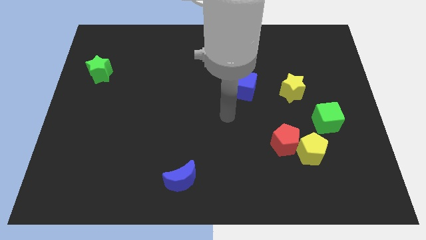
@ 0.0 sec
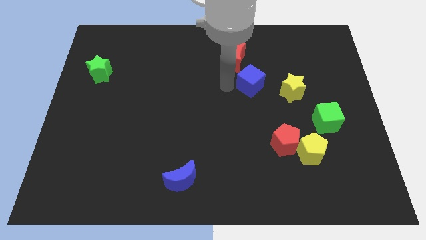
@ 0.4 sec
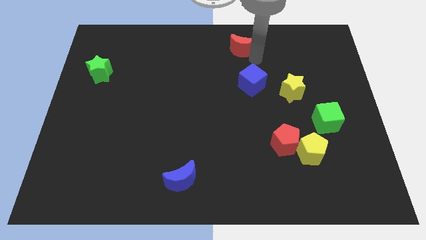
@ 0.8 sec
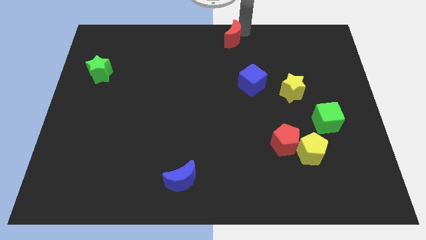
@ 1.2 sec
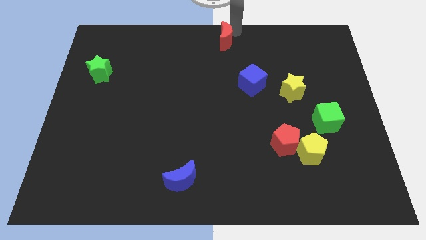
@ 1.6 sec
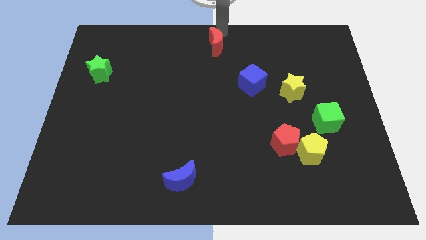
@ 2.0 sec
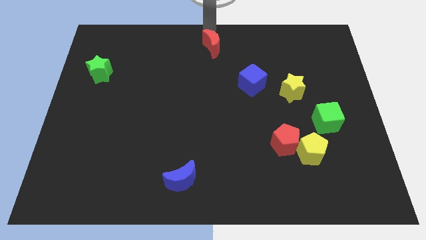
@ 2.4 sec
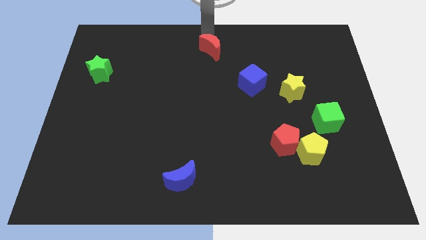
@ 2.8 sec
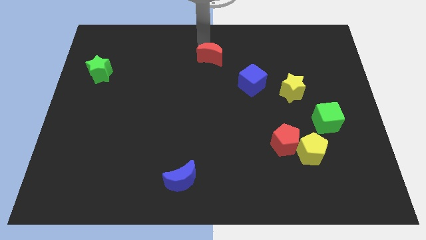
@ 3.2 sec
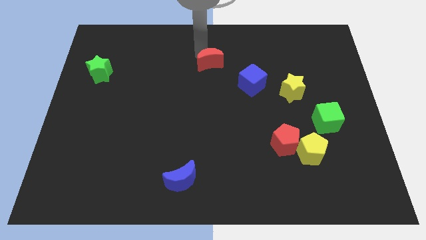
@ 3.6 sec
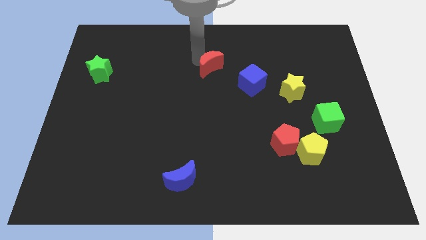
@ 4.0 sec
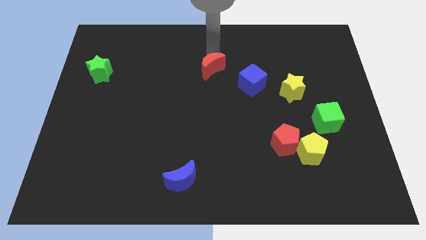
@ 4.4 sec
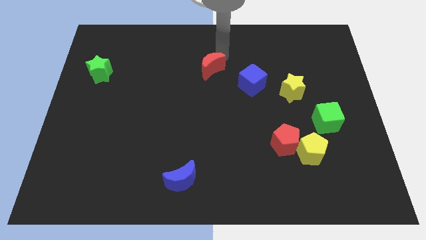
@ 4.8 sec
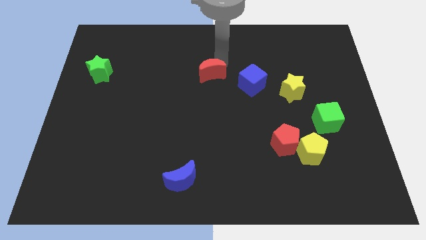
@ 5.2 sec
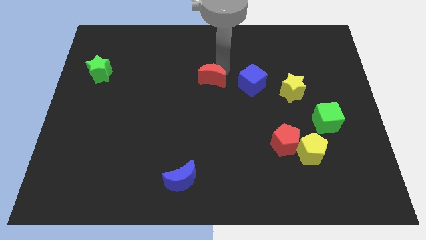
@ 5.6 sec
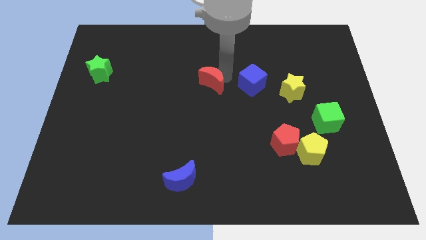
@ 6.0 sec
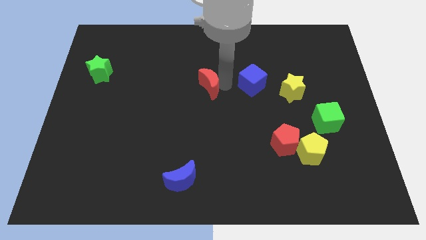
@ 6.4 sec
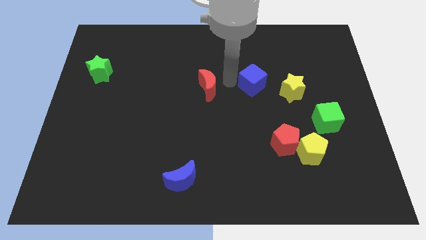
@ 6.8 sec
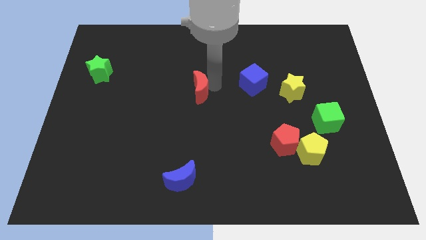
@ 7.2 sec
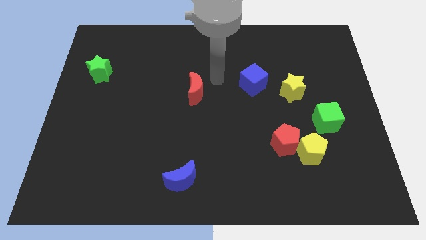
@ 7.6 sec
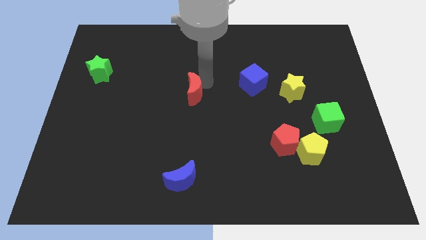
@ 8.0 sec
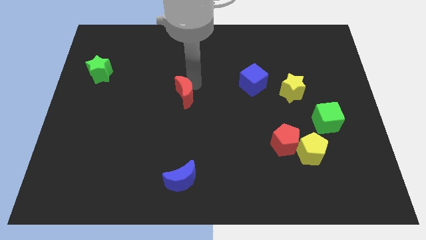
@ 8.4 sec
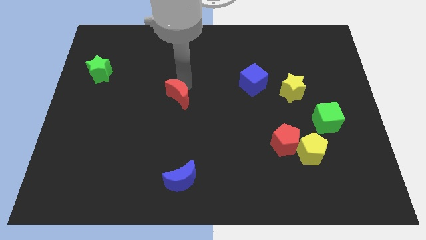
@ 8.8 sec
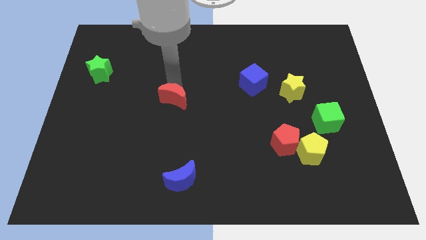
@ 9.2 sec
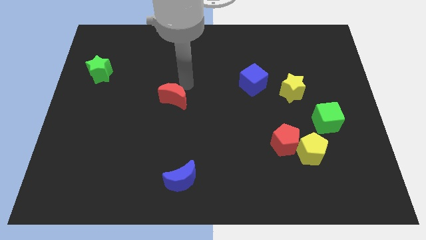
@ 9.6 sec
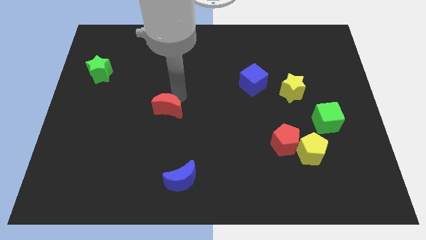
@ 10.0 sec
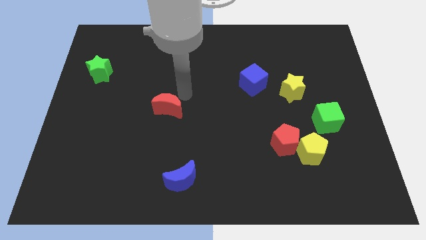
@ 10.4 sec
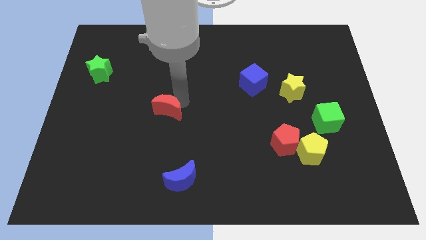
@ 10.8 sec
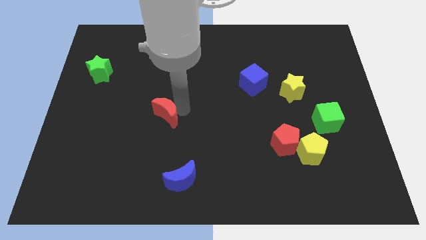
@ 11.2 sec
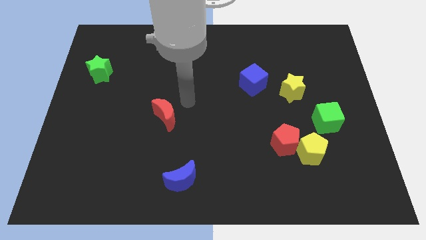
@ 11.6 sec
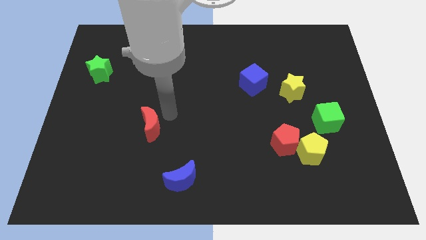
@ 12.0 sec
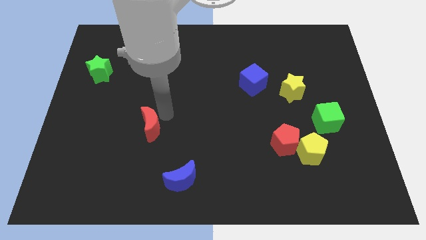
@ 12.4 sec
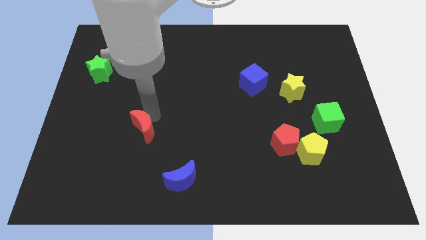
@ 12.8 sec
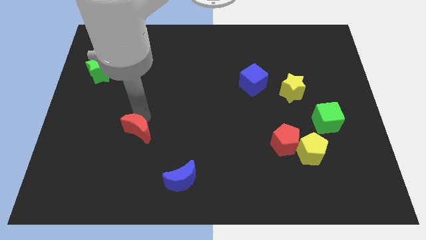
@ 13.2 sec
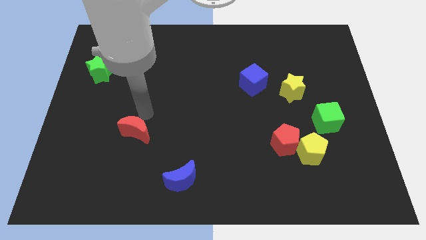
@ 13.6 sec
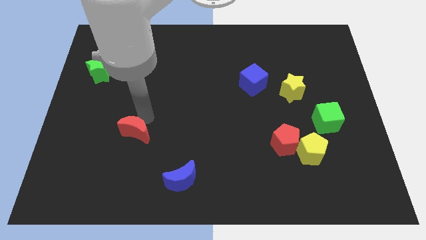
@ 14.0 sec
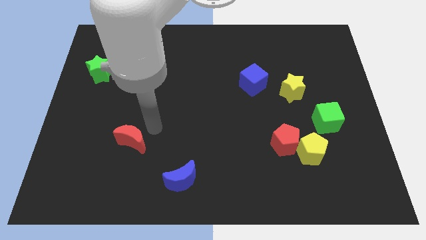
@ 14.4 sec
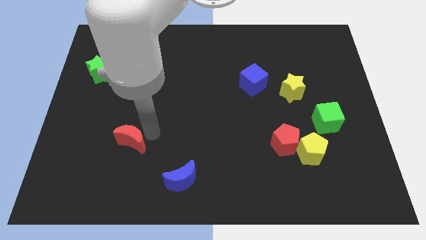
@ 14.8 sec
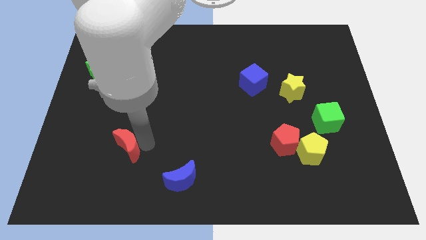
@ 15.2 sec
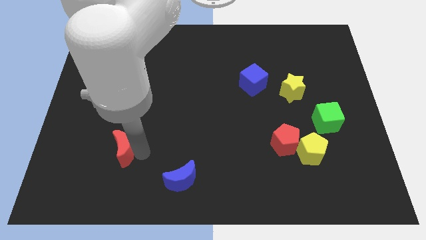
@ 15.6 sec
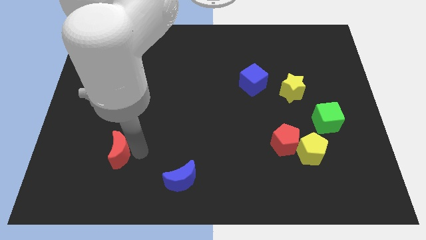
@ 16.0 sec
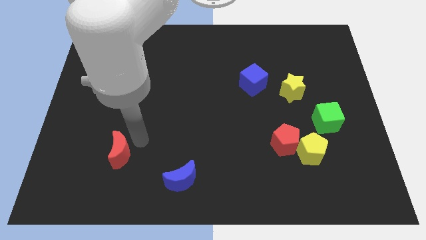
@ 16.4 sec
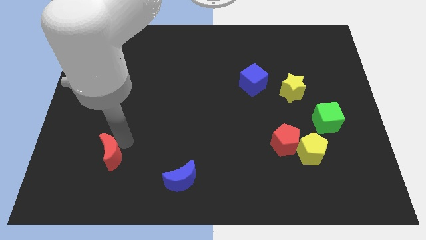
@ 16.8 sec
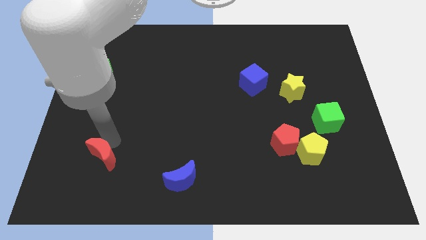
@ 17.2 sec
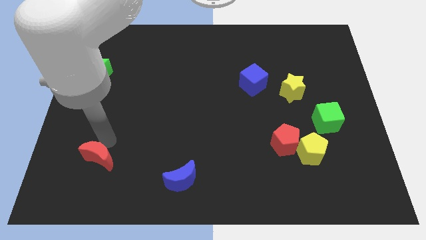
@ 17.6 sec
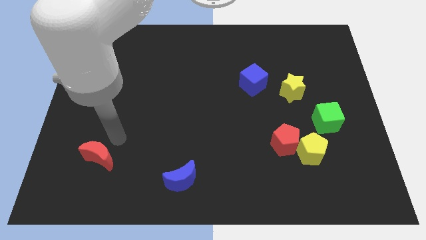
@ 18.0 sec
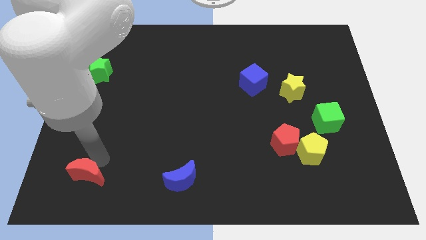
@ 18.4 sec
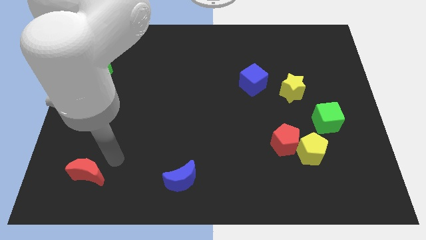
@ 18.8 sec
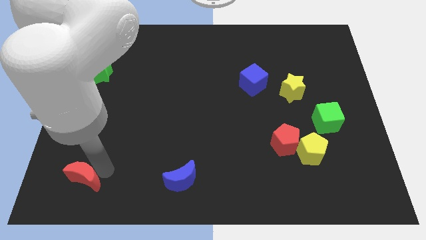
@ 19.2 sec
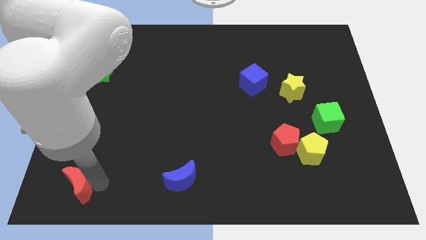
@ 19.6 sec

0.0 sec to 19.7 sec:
move the red moon to the bottom left corner

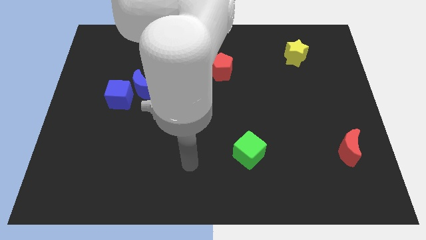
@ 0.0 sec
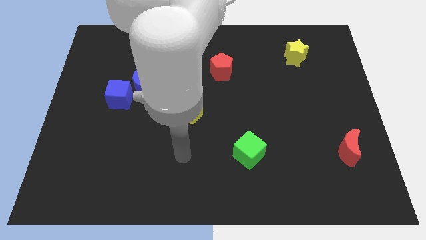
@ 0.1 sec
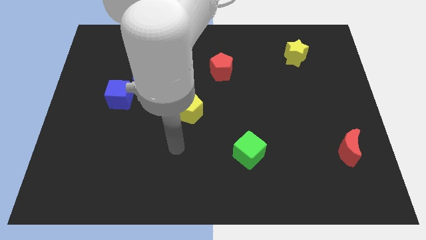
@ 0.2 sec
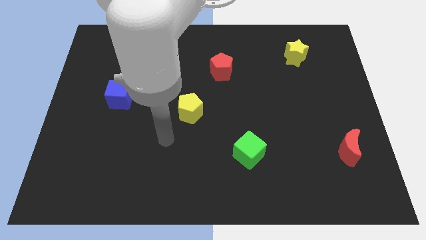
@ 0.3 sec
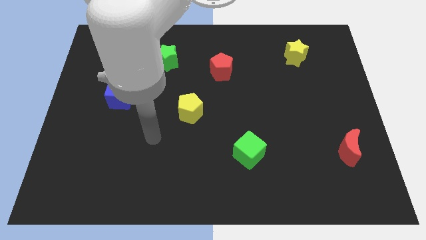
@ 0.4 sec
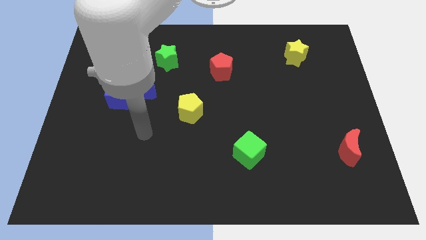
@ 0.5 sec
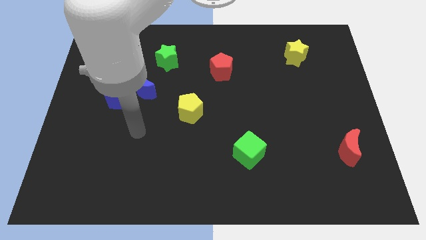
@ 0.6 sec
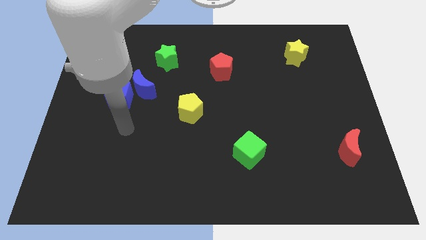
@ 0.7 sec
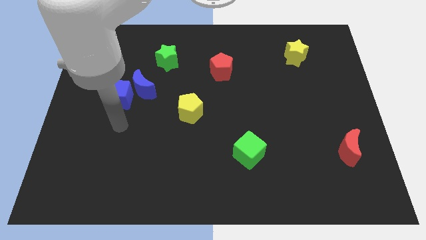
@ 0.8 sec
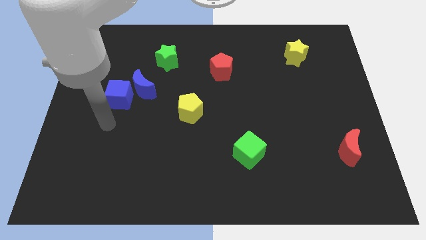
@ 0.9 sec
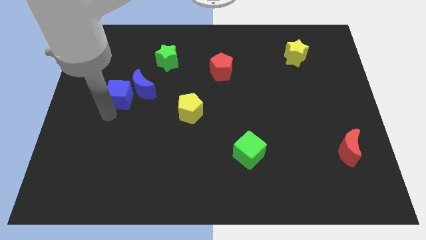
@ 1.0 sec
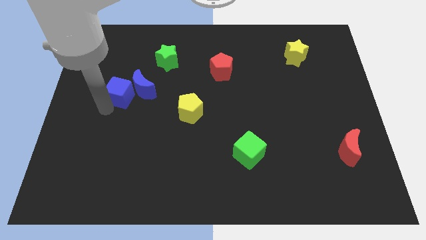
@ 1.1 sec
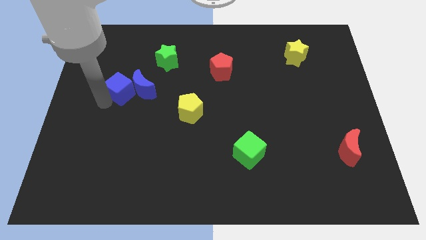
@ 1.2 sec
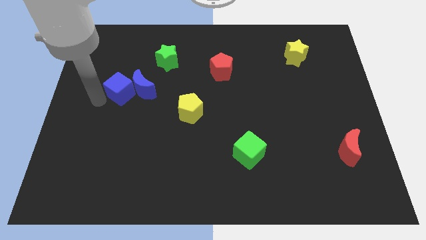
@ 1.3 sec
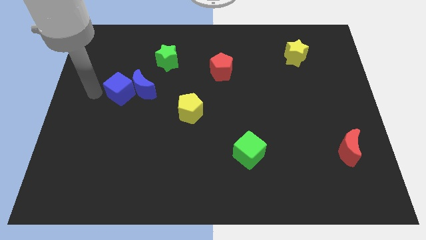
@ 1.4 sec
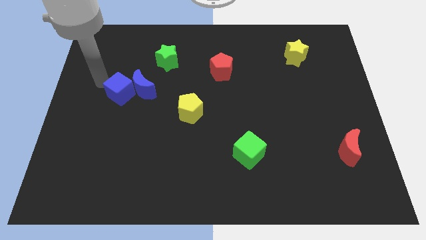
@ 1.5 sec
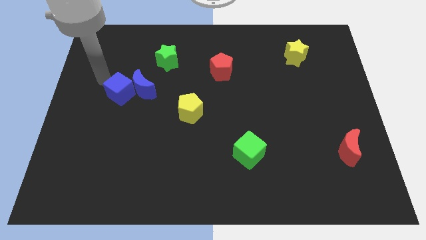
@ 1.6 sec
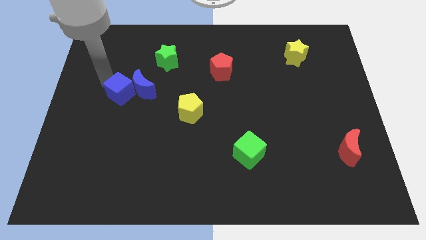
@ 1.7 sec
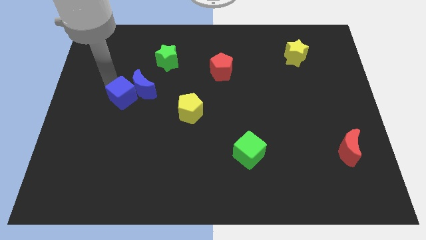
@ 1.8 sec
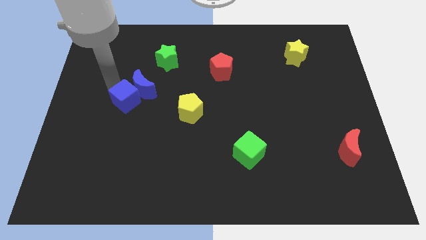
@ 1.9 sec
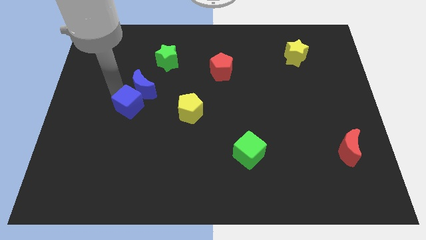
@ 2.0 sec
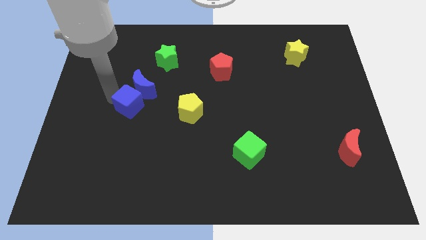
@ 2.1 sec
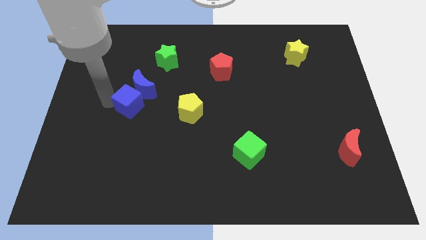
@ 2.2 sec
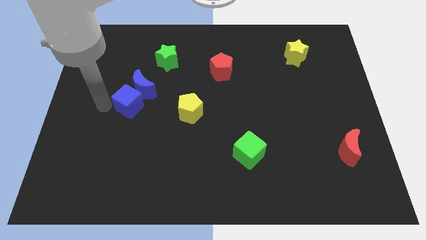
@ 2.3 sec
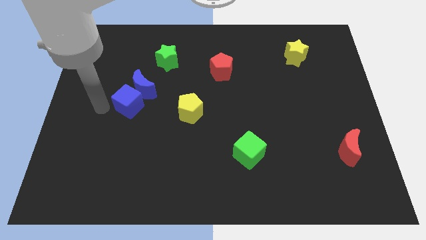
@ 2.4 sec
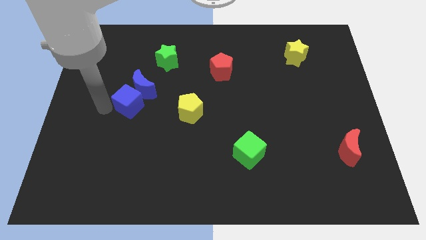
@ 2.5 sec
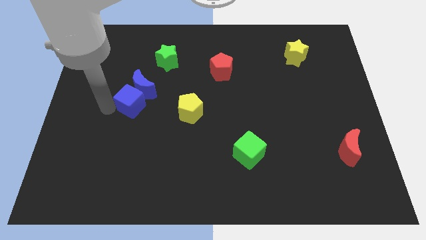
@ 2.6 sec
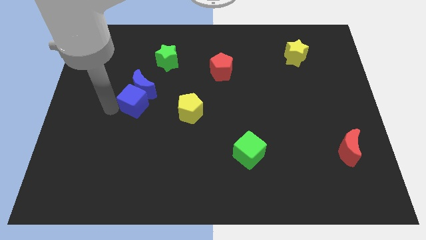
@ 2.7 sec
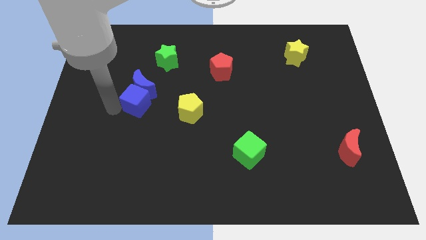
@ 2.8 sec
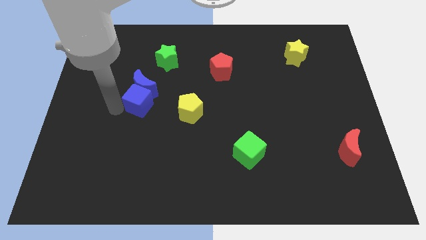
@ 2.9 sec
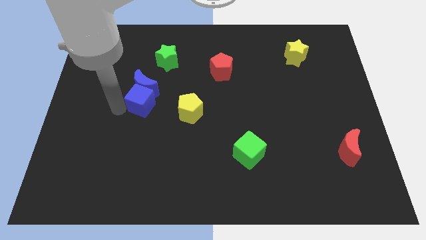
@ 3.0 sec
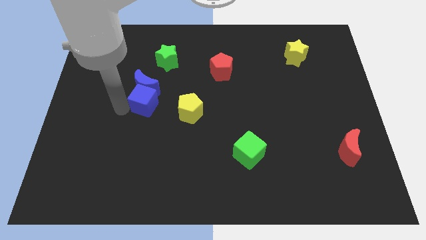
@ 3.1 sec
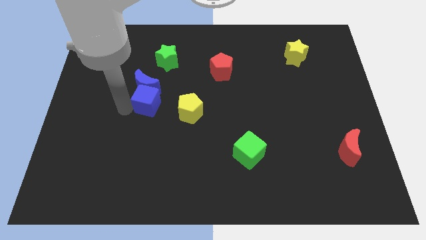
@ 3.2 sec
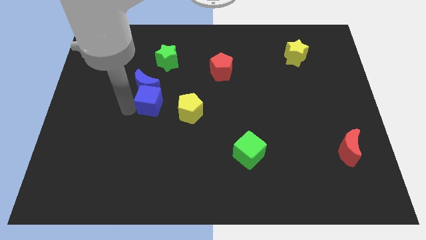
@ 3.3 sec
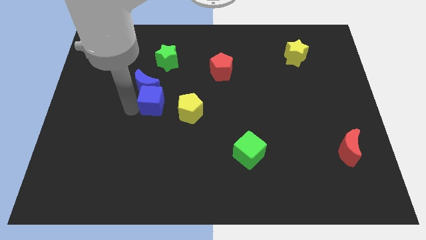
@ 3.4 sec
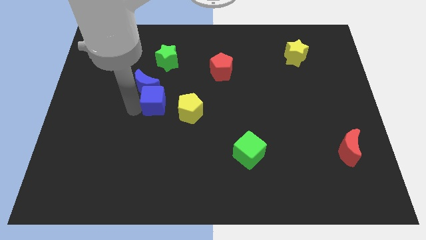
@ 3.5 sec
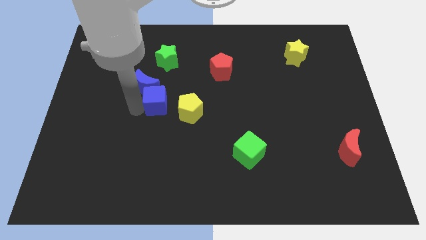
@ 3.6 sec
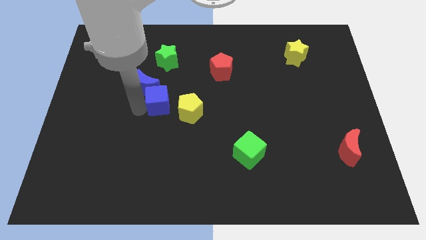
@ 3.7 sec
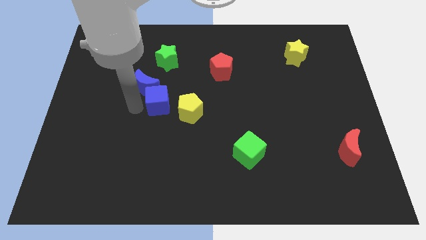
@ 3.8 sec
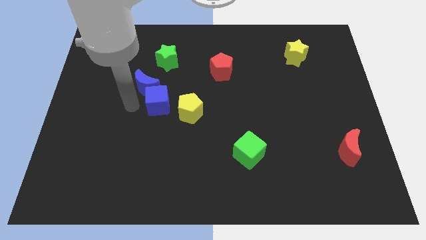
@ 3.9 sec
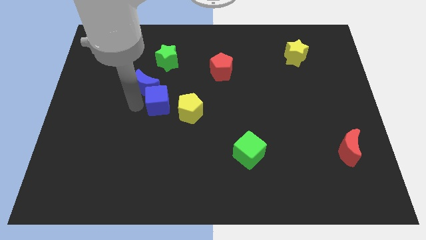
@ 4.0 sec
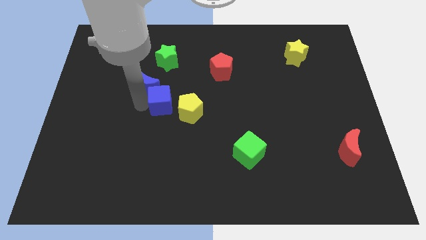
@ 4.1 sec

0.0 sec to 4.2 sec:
slide the blue cube to the center
